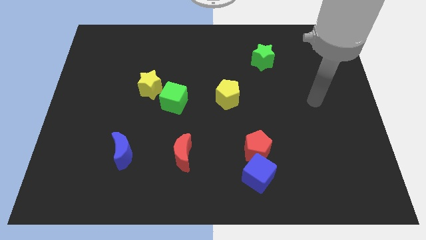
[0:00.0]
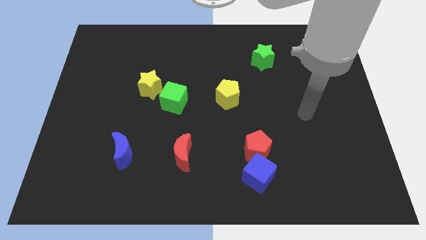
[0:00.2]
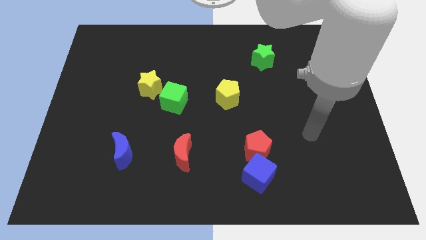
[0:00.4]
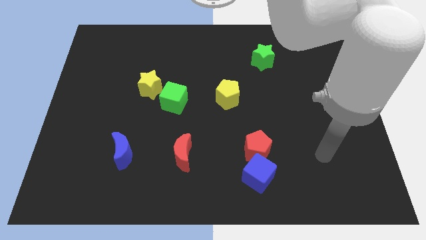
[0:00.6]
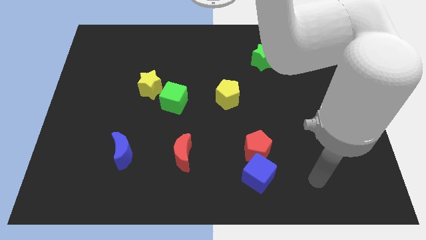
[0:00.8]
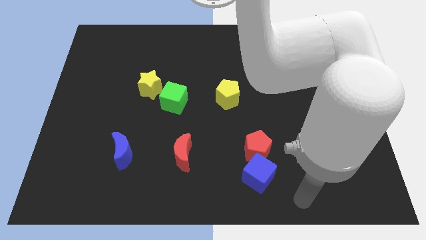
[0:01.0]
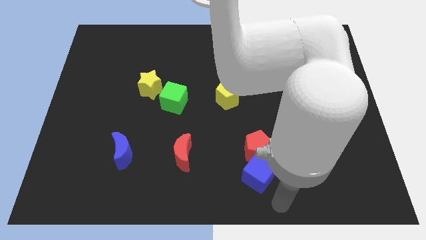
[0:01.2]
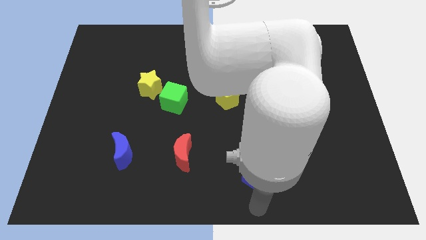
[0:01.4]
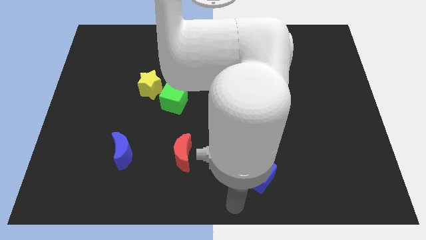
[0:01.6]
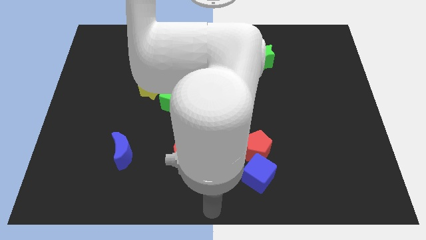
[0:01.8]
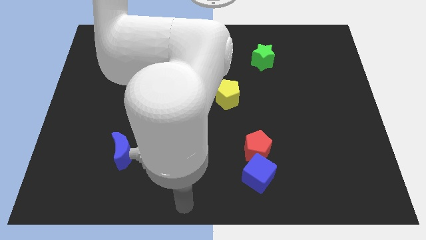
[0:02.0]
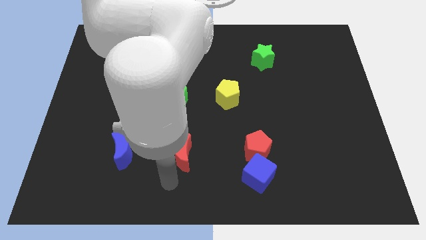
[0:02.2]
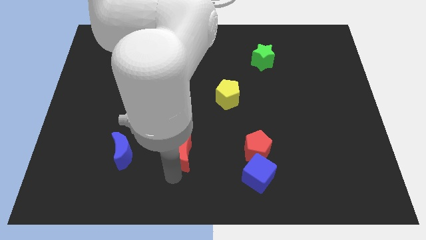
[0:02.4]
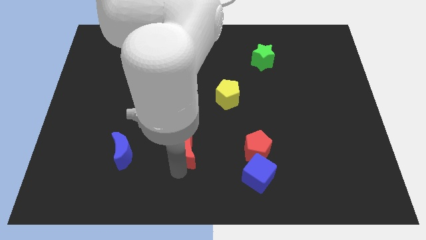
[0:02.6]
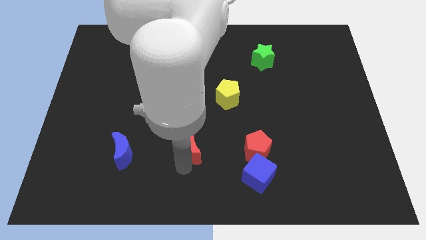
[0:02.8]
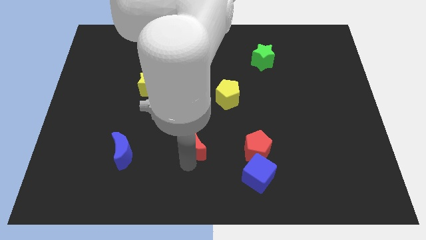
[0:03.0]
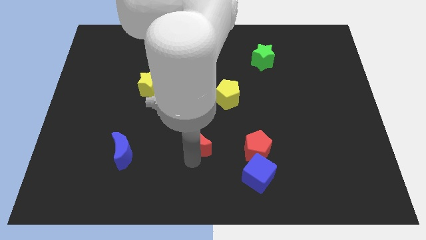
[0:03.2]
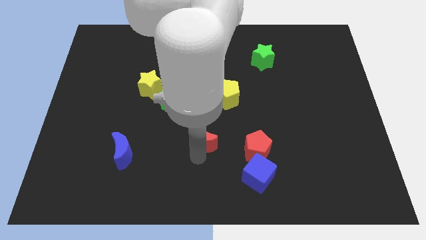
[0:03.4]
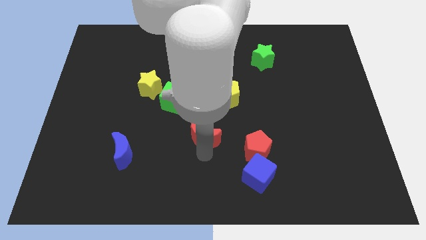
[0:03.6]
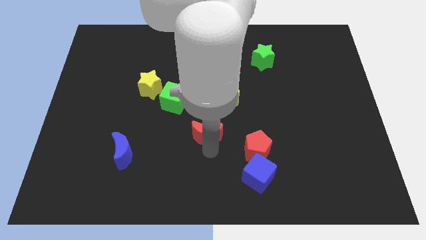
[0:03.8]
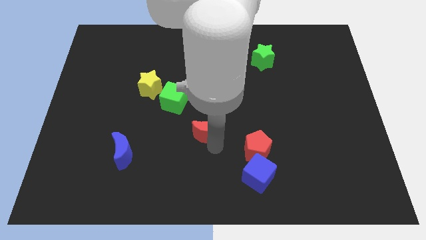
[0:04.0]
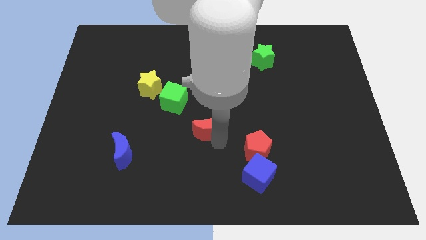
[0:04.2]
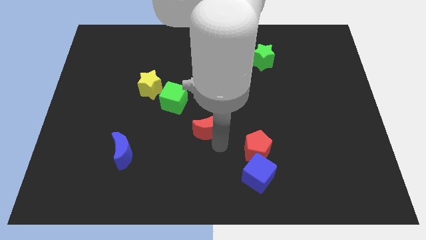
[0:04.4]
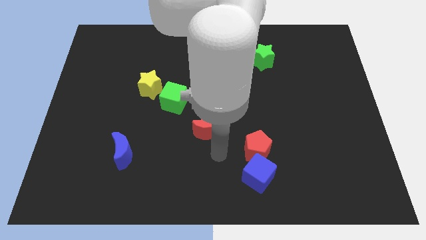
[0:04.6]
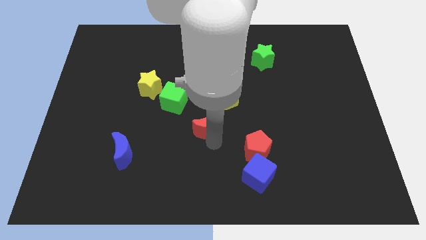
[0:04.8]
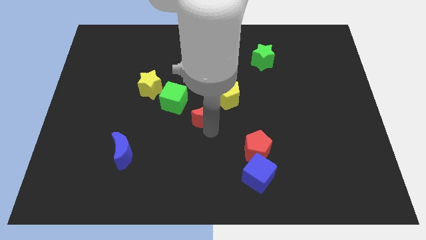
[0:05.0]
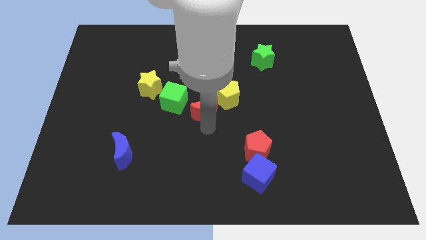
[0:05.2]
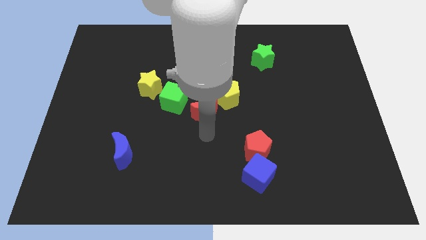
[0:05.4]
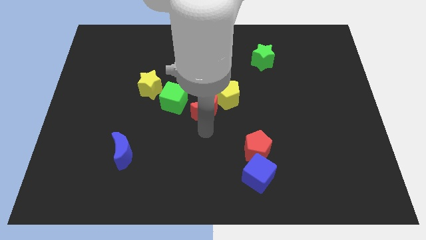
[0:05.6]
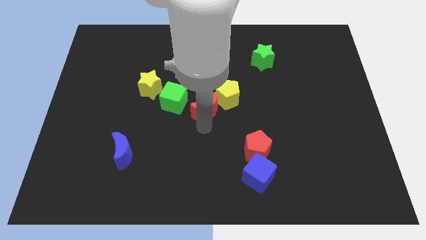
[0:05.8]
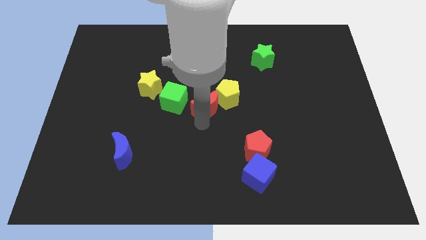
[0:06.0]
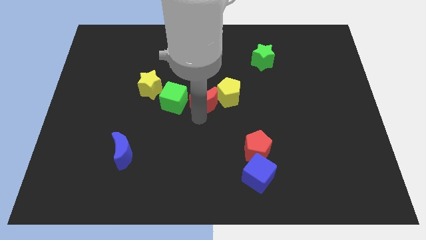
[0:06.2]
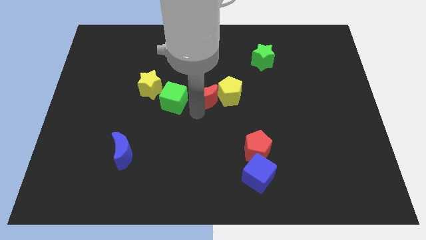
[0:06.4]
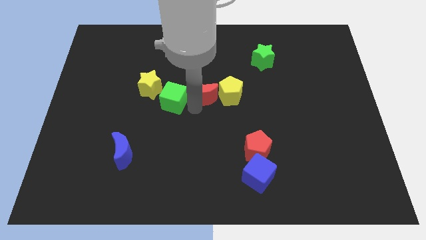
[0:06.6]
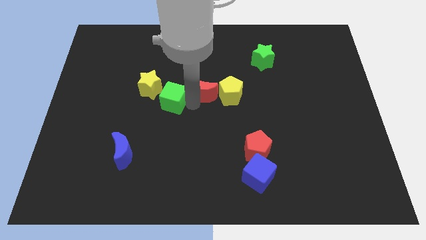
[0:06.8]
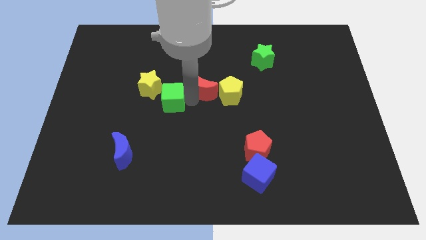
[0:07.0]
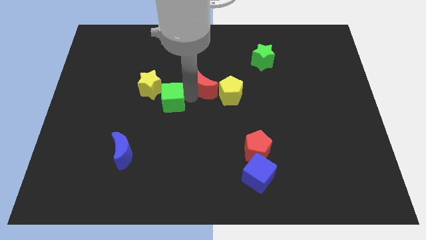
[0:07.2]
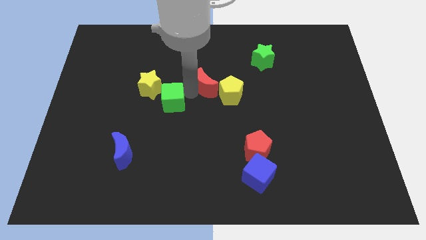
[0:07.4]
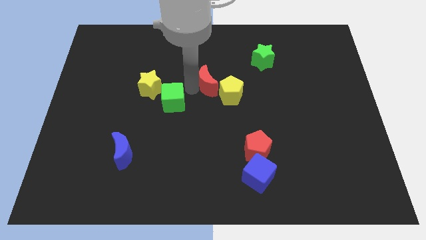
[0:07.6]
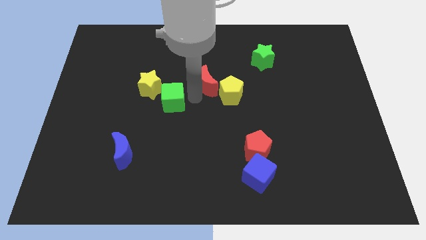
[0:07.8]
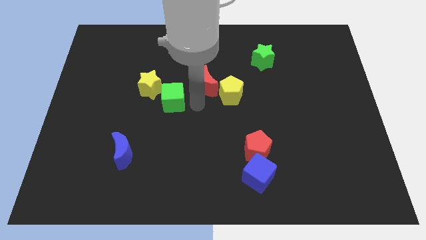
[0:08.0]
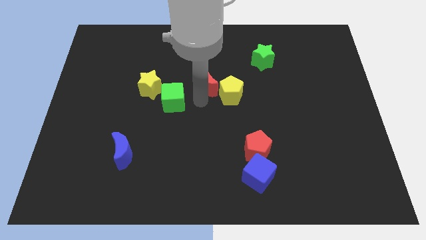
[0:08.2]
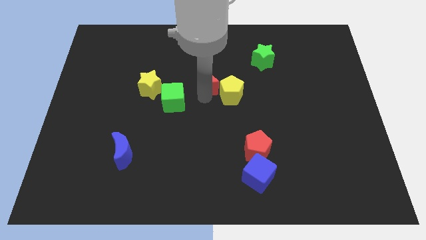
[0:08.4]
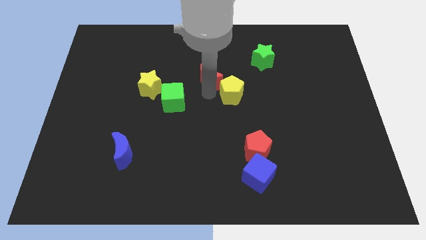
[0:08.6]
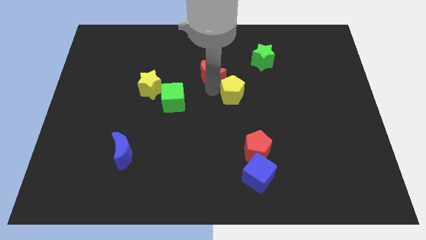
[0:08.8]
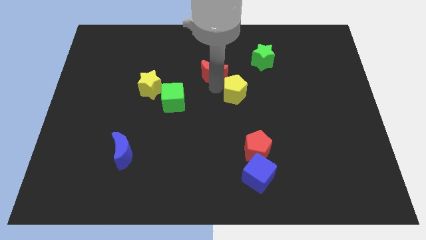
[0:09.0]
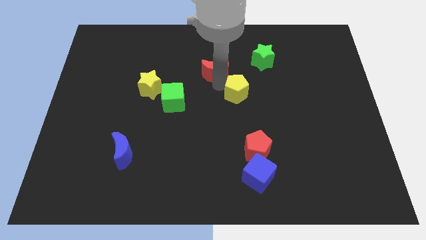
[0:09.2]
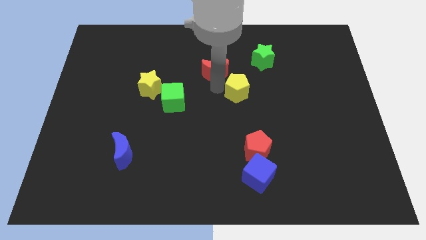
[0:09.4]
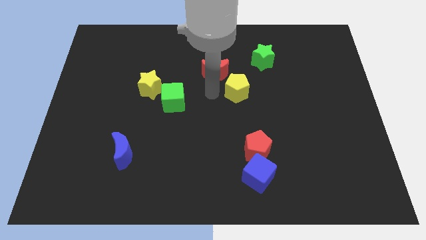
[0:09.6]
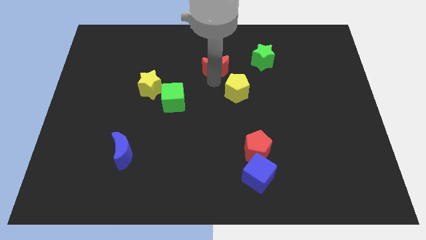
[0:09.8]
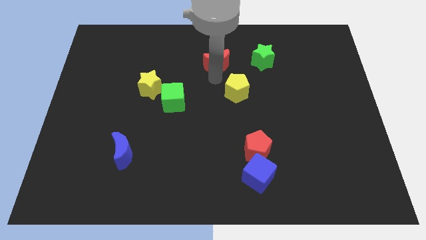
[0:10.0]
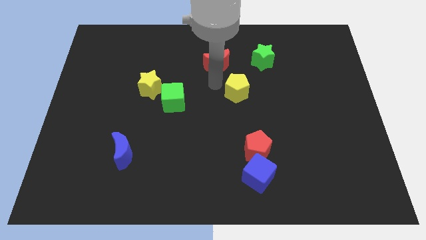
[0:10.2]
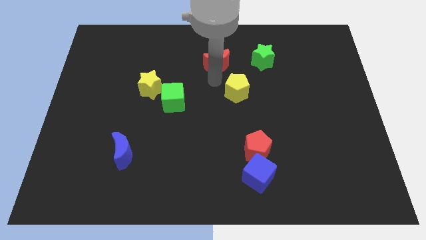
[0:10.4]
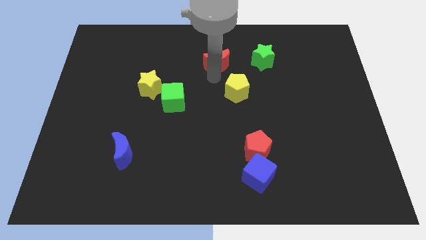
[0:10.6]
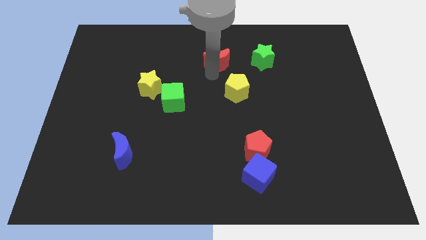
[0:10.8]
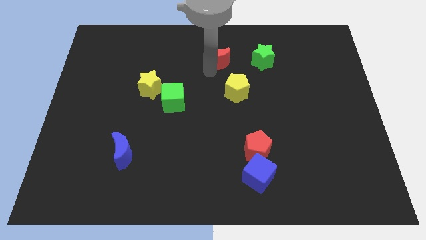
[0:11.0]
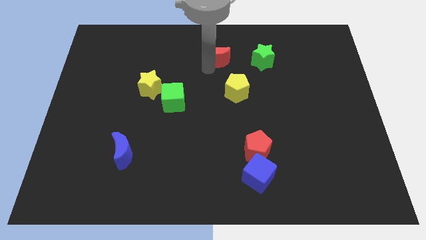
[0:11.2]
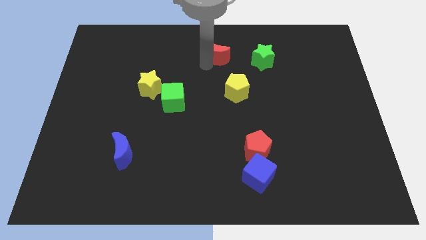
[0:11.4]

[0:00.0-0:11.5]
slide the red moon to the top

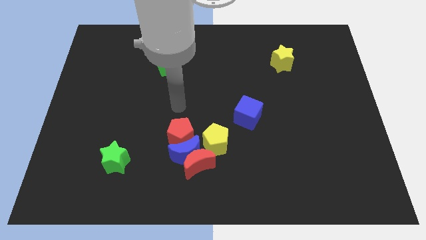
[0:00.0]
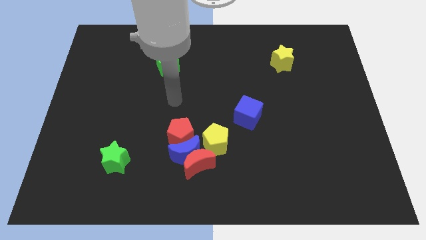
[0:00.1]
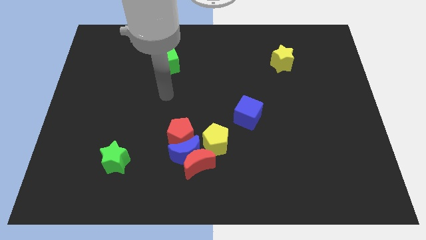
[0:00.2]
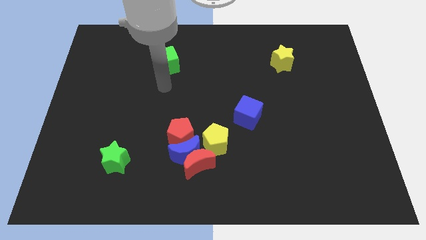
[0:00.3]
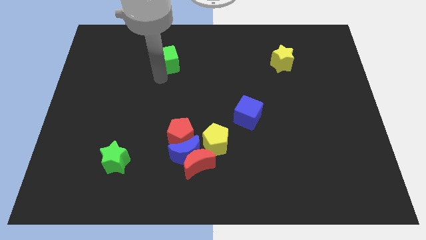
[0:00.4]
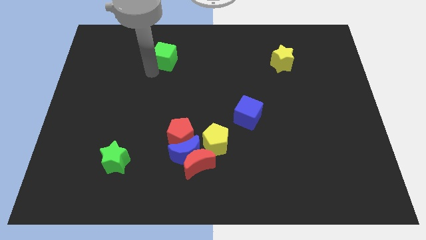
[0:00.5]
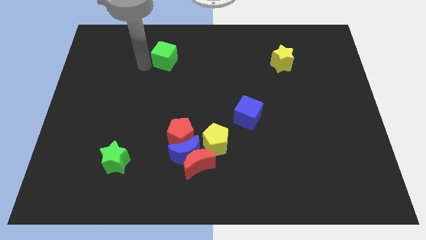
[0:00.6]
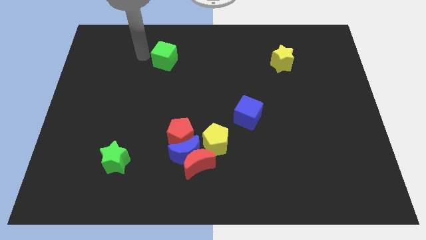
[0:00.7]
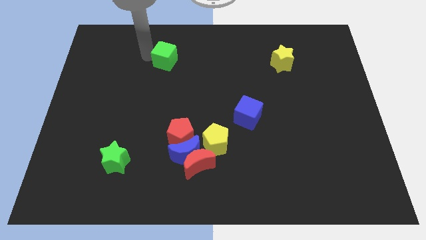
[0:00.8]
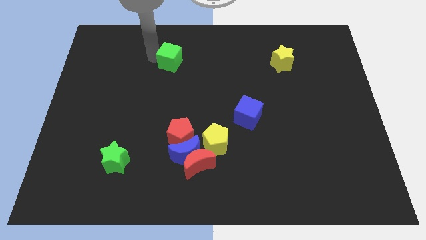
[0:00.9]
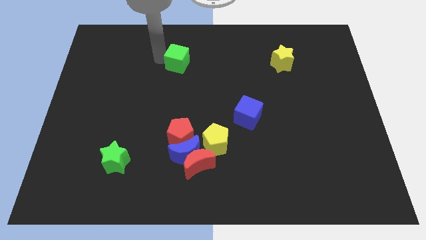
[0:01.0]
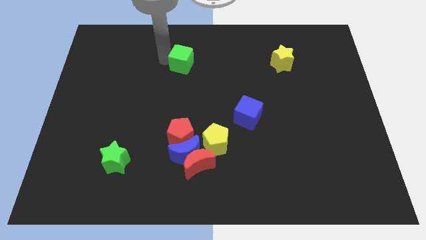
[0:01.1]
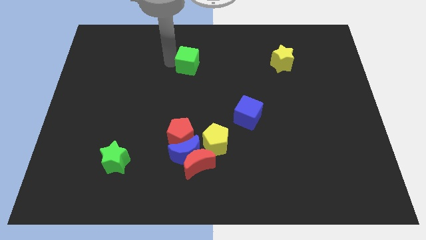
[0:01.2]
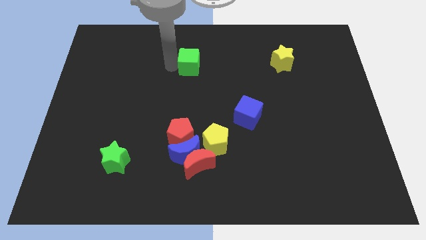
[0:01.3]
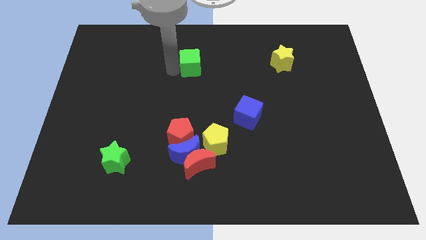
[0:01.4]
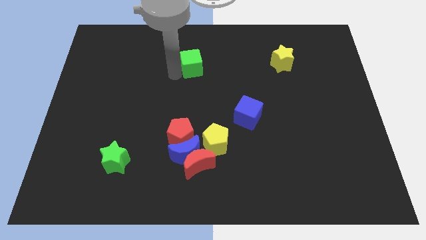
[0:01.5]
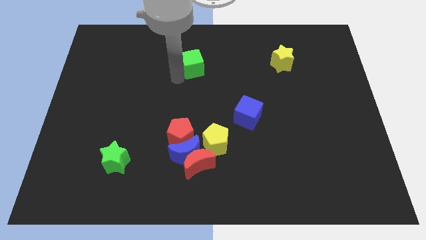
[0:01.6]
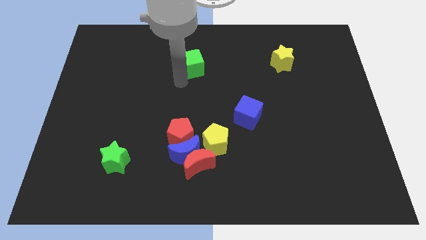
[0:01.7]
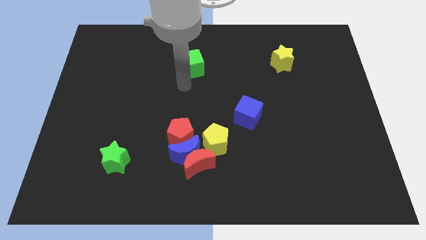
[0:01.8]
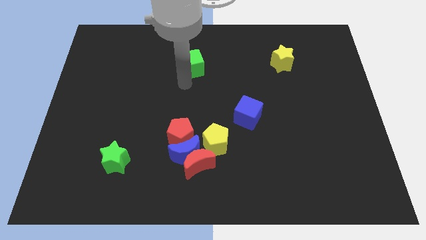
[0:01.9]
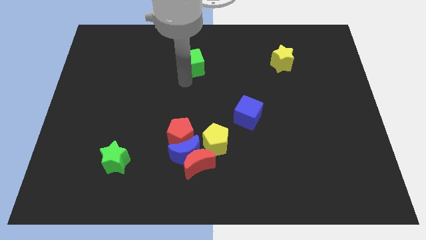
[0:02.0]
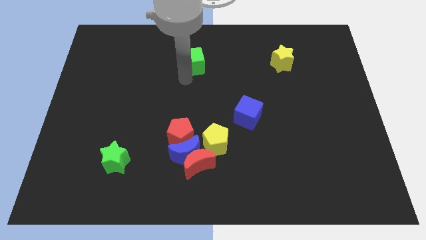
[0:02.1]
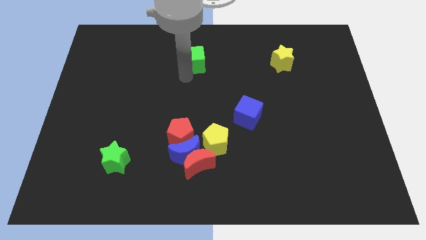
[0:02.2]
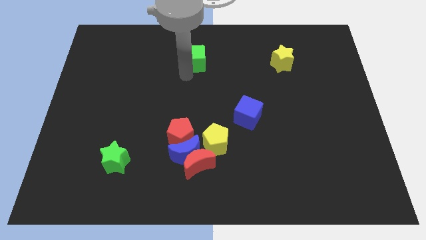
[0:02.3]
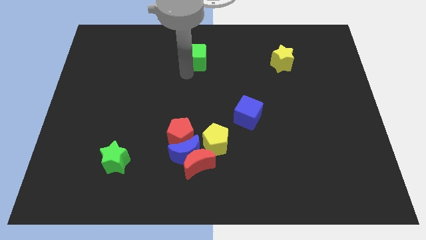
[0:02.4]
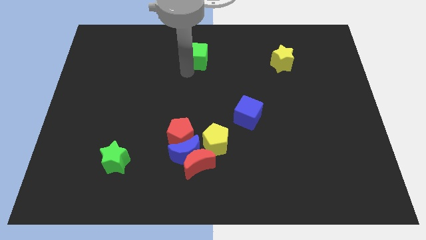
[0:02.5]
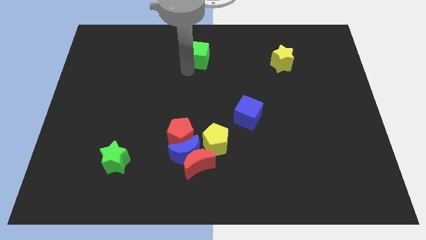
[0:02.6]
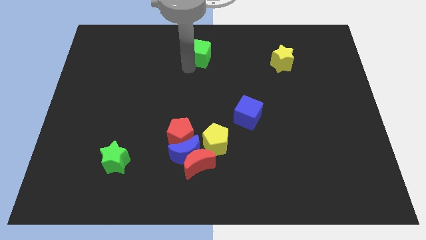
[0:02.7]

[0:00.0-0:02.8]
put the green cube to the towards your base
